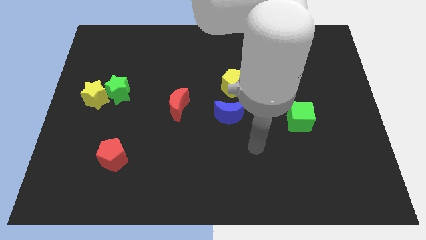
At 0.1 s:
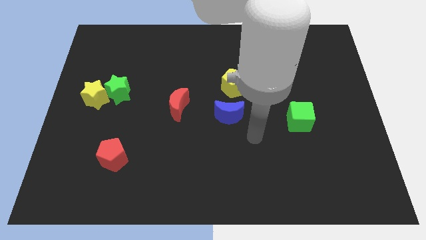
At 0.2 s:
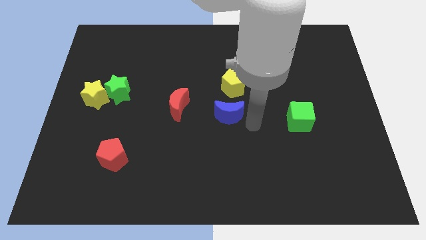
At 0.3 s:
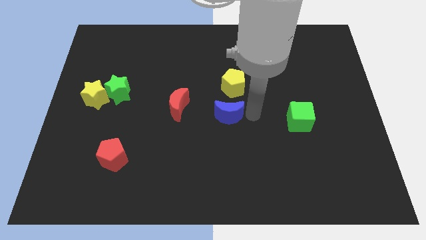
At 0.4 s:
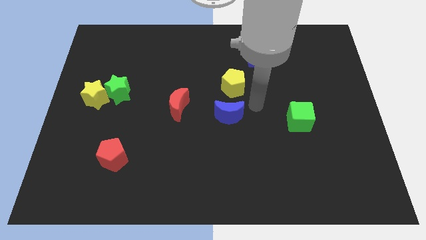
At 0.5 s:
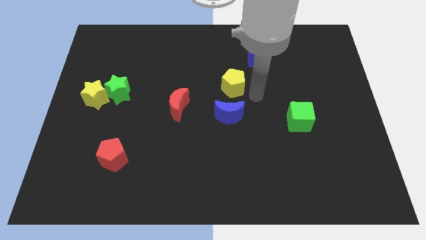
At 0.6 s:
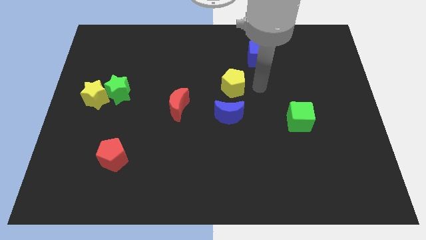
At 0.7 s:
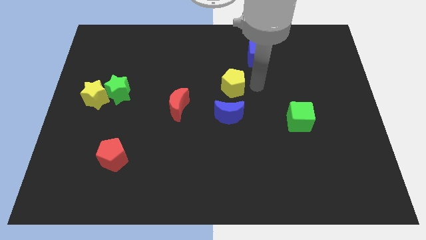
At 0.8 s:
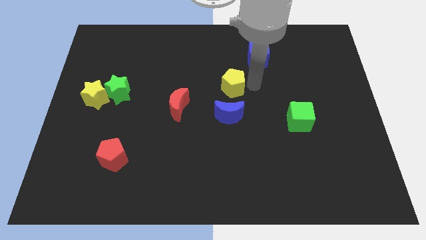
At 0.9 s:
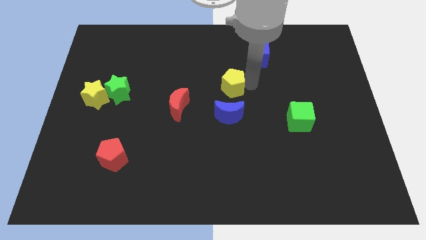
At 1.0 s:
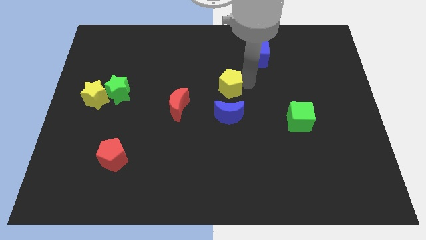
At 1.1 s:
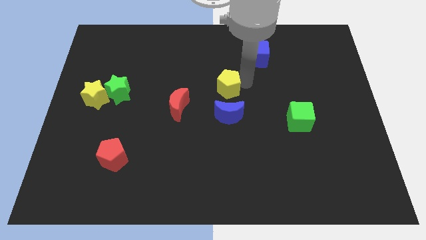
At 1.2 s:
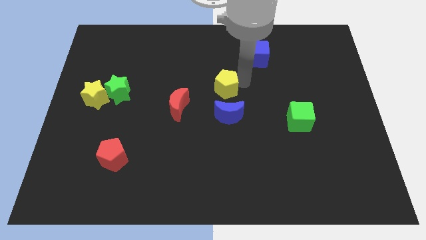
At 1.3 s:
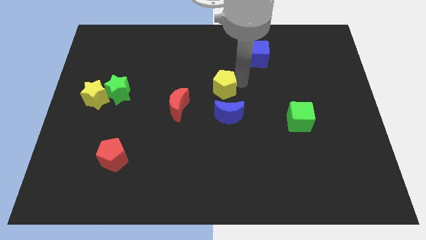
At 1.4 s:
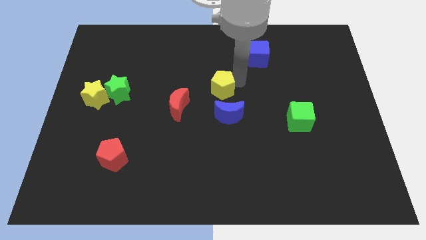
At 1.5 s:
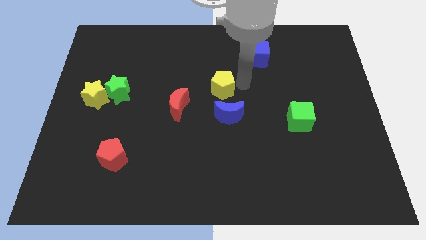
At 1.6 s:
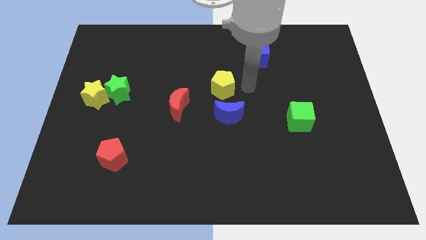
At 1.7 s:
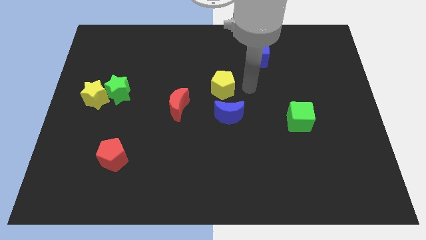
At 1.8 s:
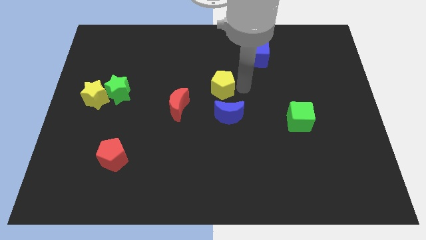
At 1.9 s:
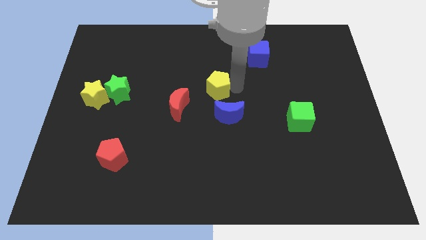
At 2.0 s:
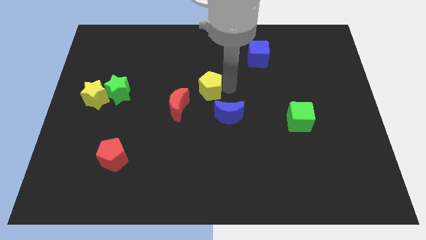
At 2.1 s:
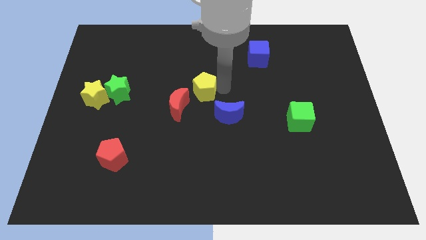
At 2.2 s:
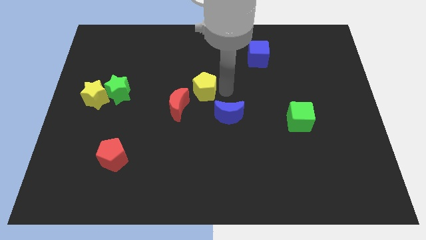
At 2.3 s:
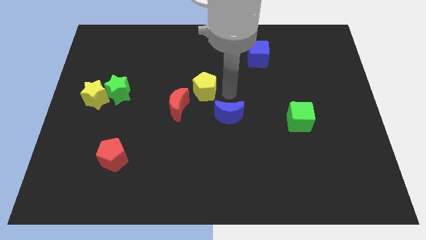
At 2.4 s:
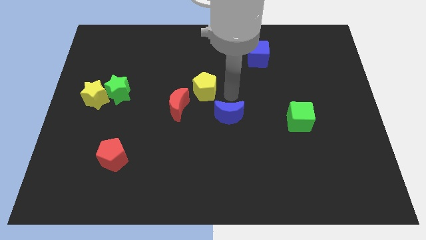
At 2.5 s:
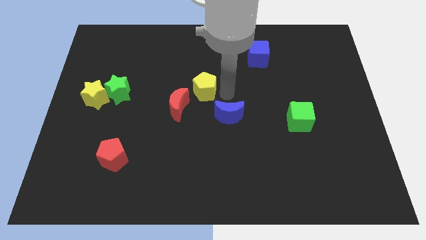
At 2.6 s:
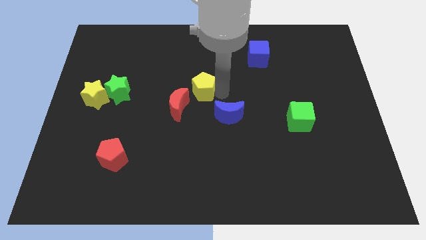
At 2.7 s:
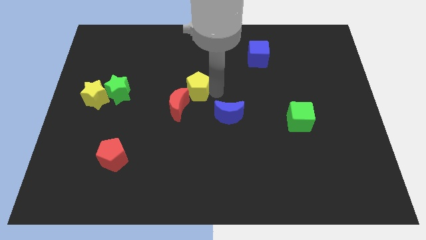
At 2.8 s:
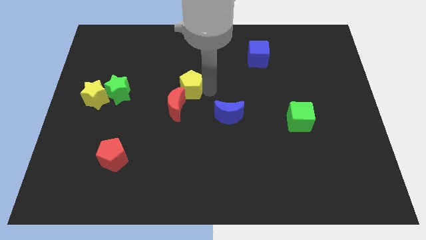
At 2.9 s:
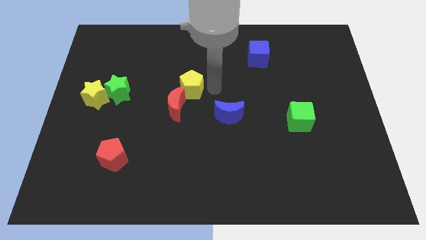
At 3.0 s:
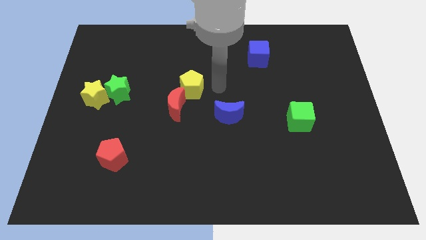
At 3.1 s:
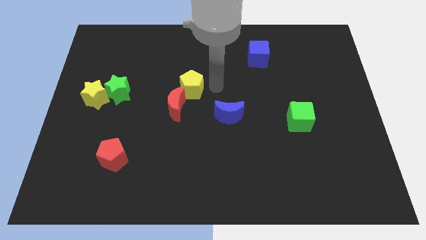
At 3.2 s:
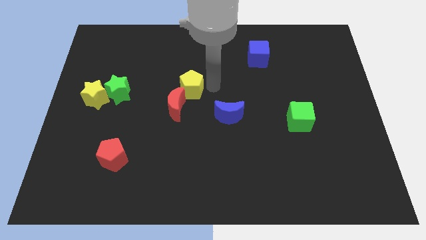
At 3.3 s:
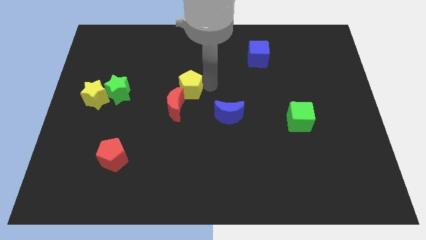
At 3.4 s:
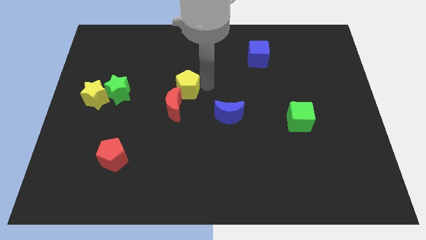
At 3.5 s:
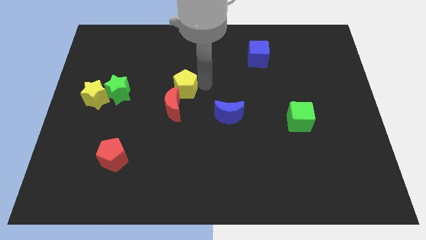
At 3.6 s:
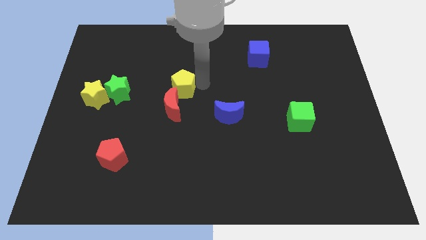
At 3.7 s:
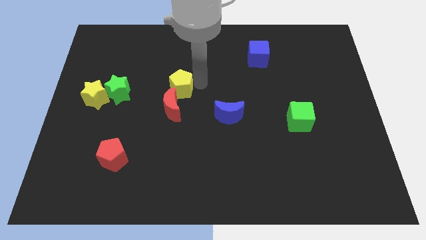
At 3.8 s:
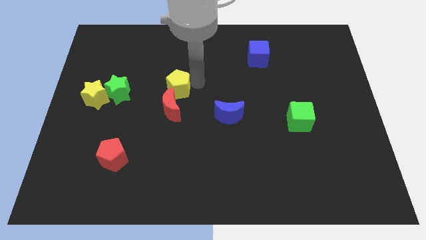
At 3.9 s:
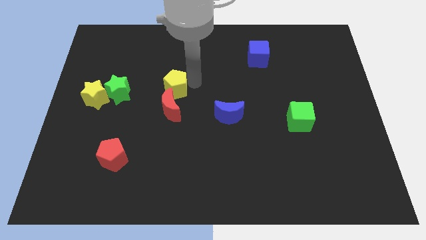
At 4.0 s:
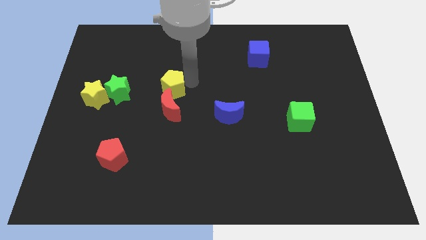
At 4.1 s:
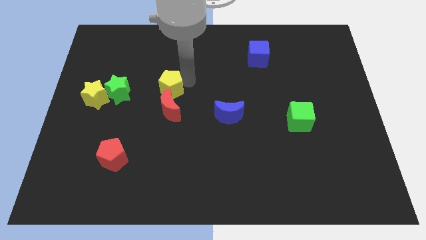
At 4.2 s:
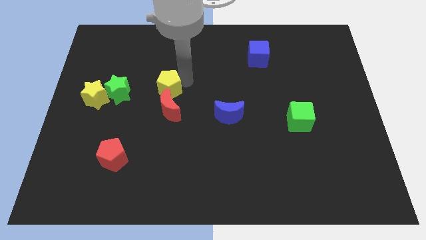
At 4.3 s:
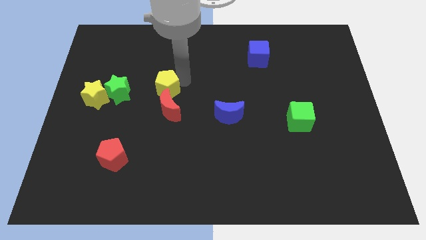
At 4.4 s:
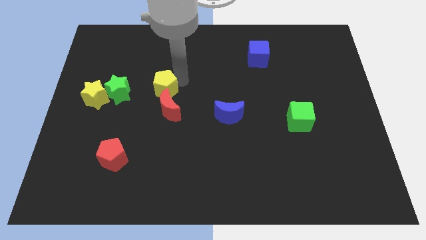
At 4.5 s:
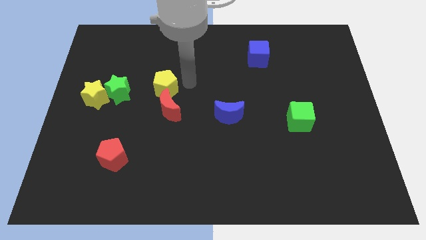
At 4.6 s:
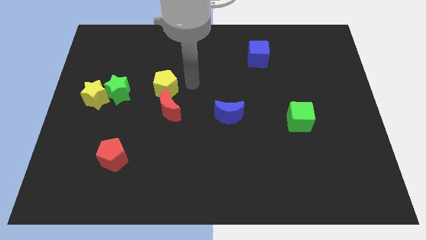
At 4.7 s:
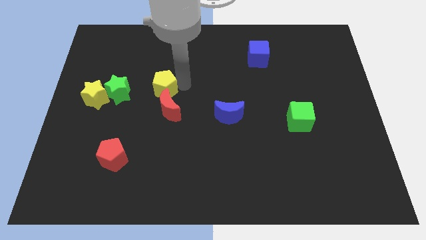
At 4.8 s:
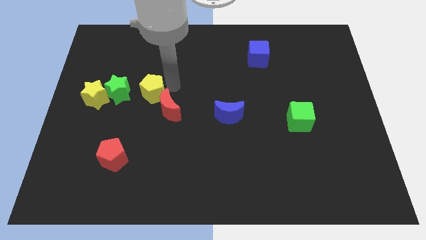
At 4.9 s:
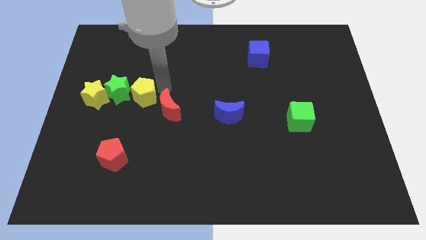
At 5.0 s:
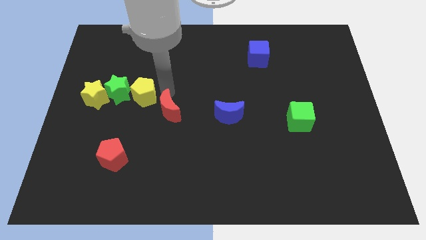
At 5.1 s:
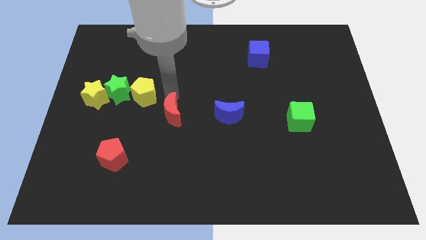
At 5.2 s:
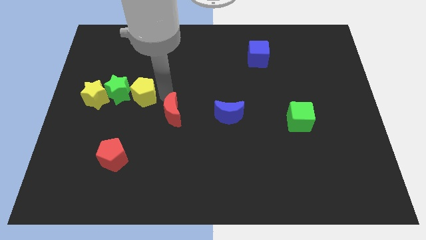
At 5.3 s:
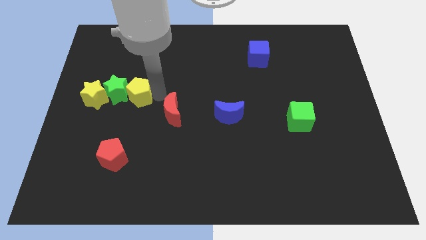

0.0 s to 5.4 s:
put the yellow pentagon towards the green star

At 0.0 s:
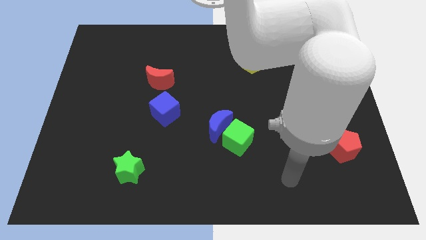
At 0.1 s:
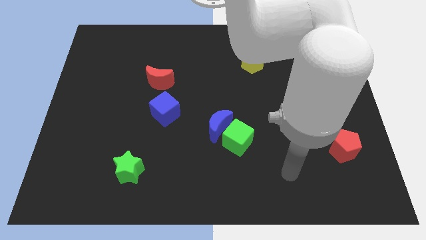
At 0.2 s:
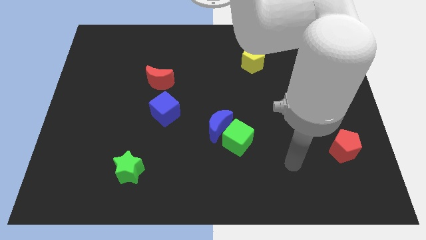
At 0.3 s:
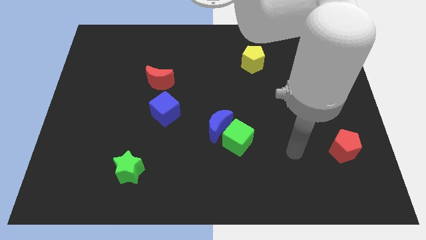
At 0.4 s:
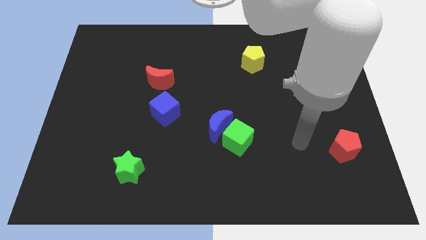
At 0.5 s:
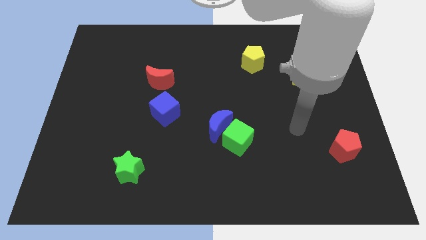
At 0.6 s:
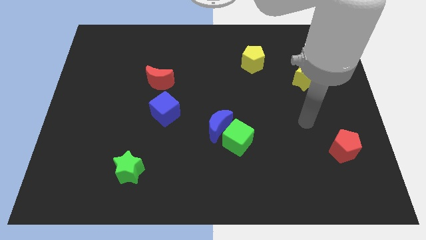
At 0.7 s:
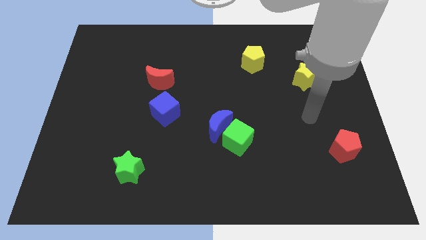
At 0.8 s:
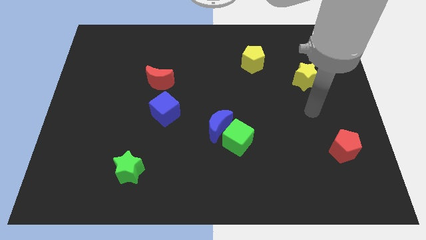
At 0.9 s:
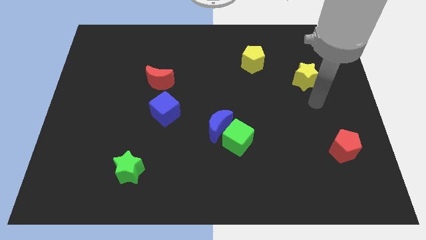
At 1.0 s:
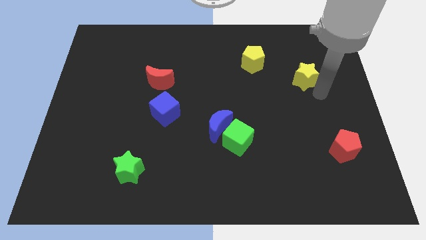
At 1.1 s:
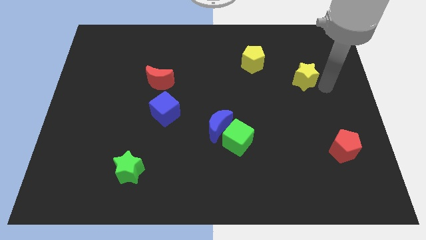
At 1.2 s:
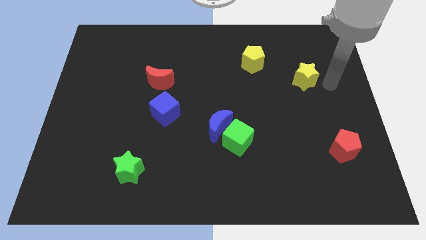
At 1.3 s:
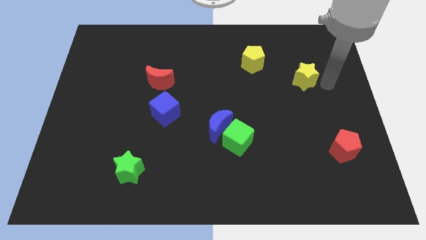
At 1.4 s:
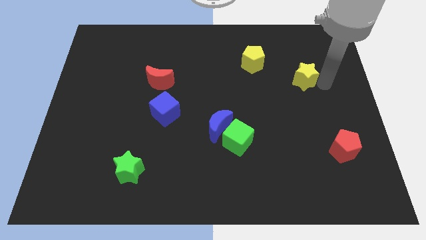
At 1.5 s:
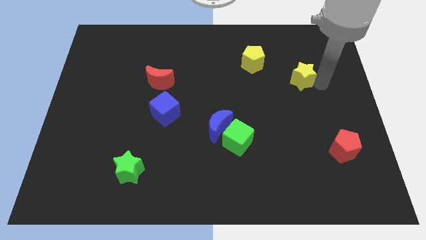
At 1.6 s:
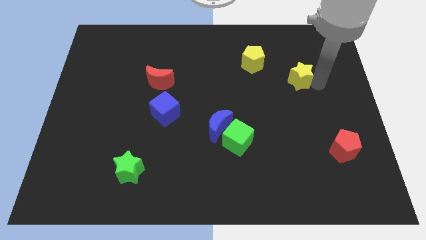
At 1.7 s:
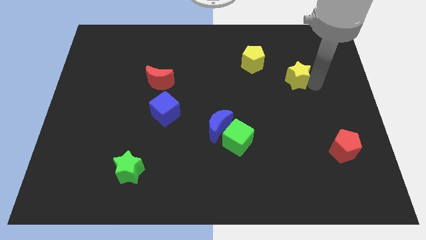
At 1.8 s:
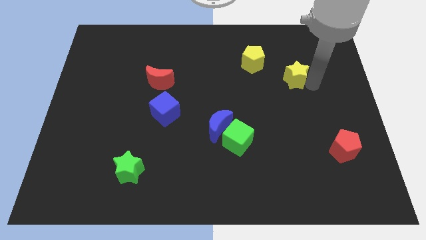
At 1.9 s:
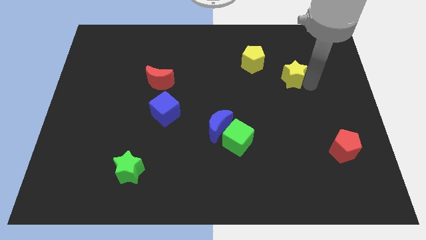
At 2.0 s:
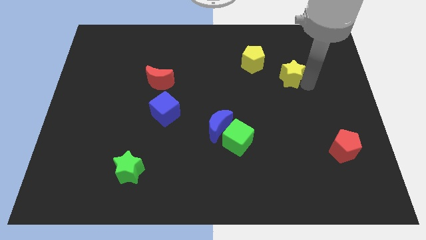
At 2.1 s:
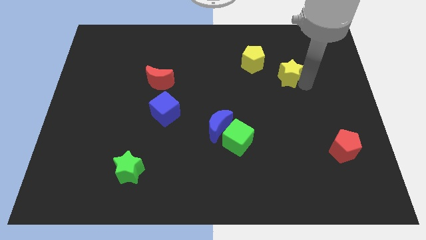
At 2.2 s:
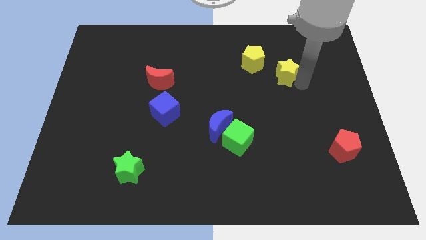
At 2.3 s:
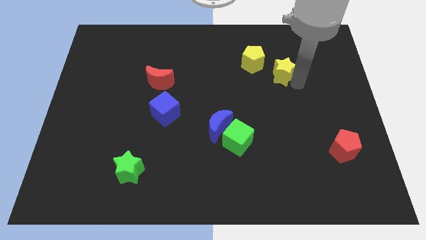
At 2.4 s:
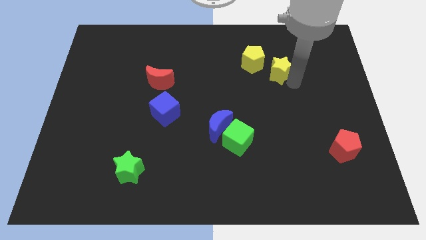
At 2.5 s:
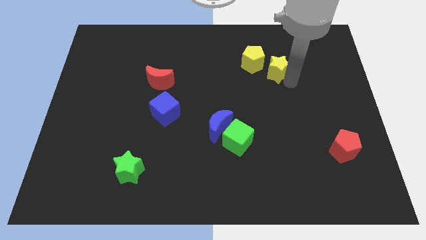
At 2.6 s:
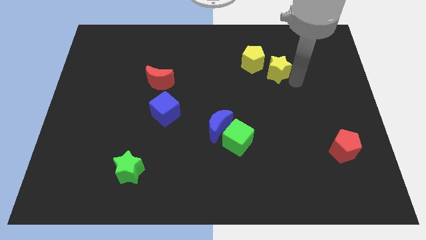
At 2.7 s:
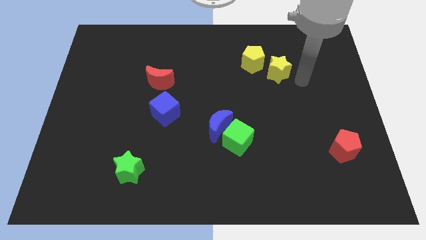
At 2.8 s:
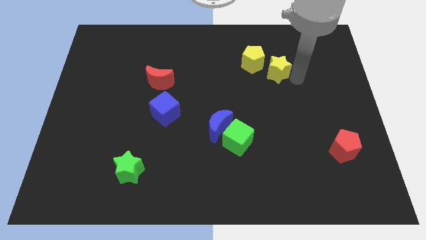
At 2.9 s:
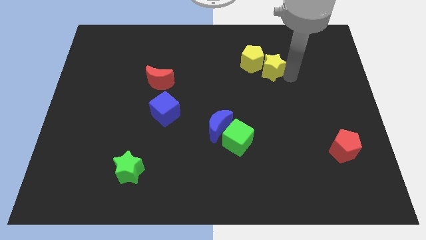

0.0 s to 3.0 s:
slide the yellow star close to the yellow pentagon
